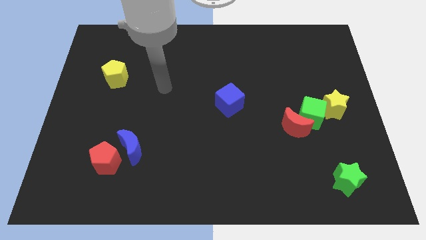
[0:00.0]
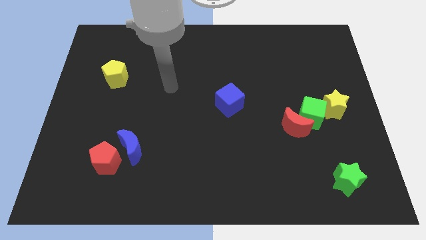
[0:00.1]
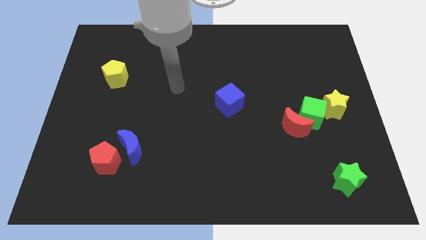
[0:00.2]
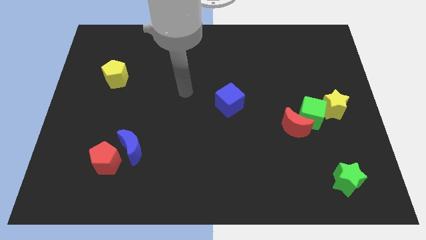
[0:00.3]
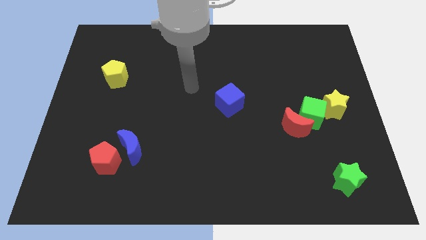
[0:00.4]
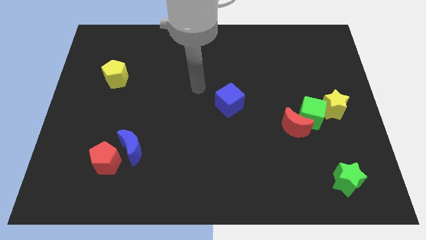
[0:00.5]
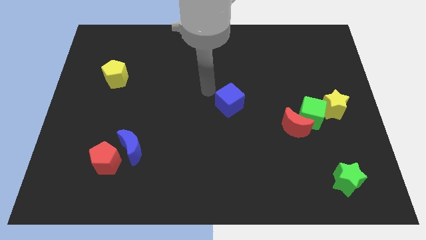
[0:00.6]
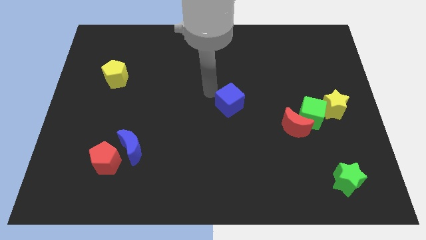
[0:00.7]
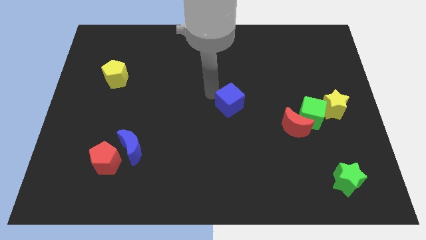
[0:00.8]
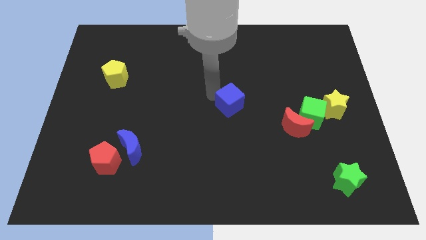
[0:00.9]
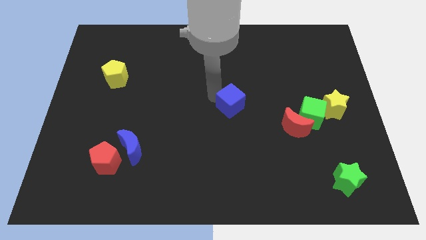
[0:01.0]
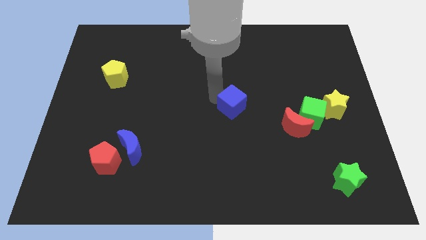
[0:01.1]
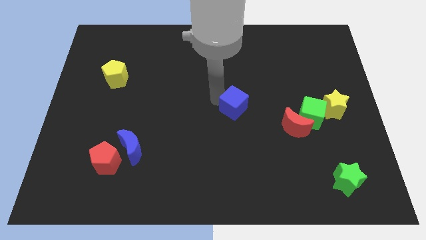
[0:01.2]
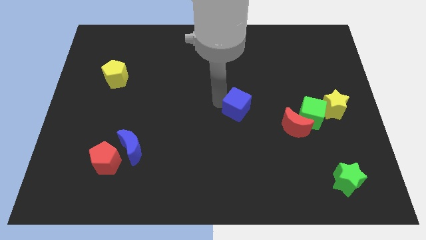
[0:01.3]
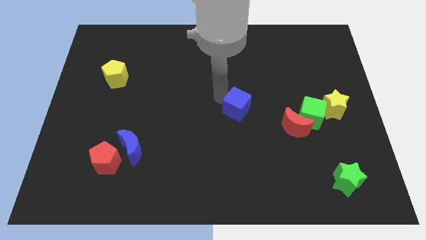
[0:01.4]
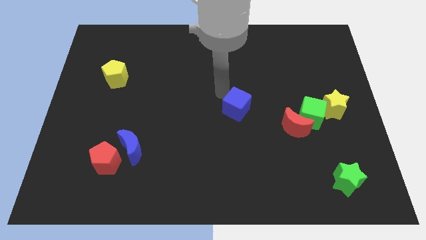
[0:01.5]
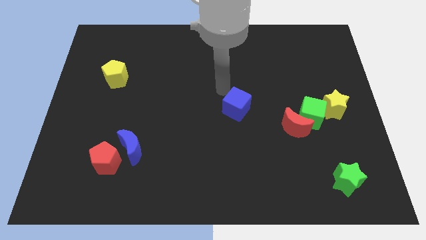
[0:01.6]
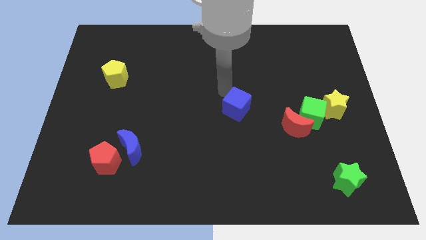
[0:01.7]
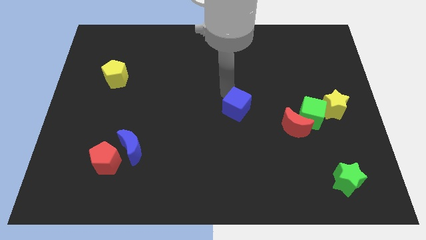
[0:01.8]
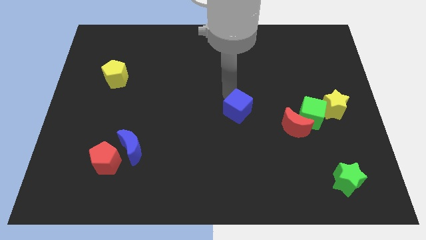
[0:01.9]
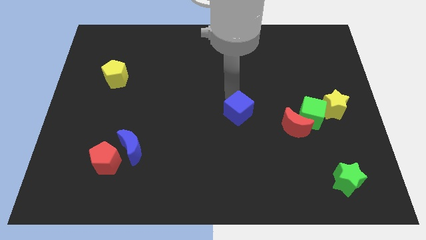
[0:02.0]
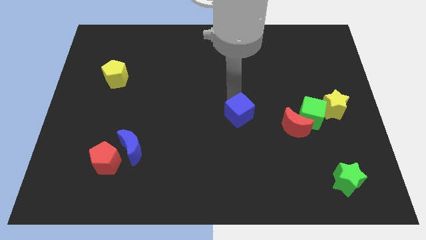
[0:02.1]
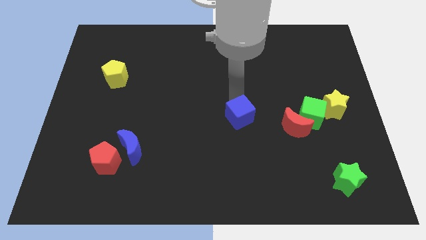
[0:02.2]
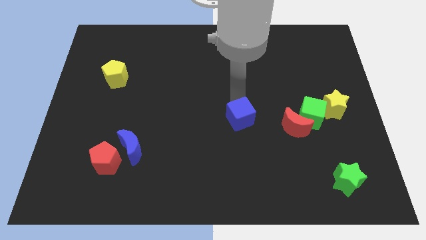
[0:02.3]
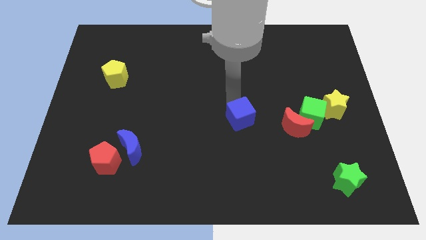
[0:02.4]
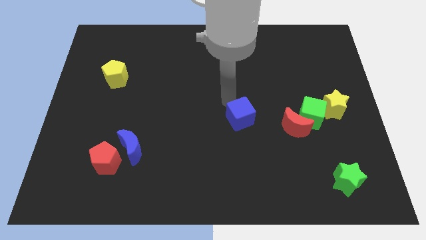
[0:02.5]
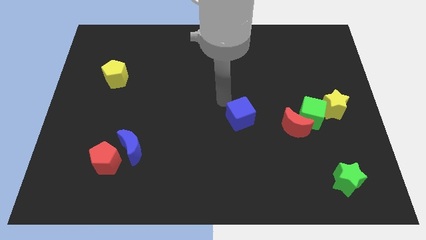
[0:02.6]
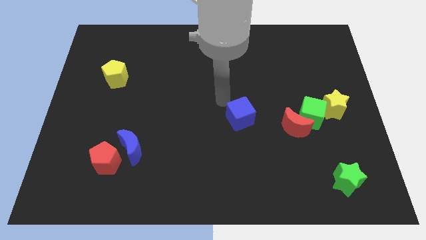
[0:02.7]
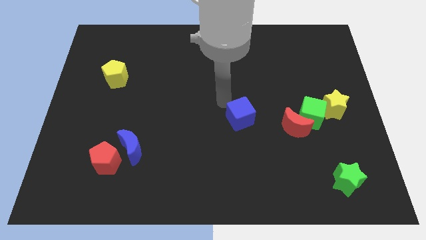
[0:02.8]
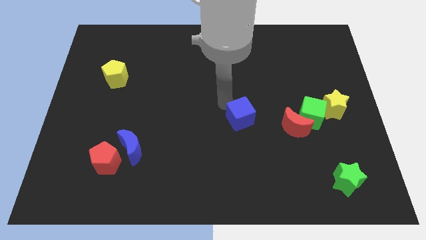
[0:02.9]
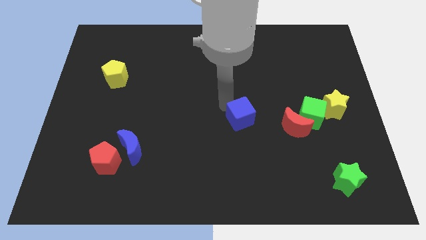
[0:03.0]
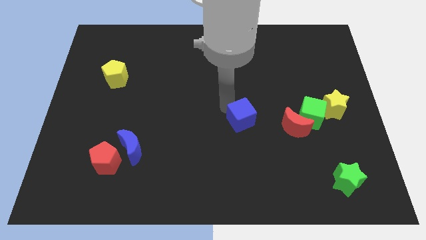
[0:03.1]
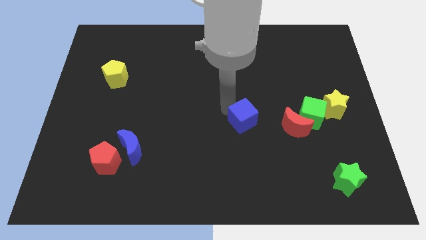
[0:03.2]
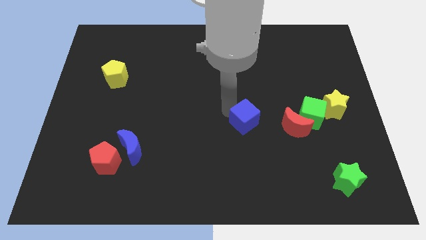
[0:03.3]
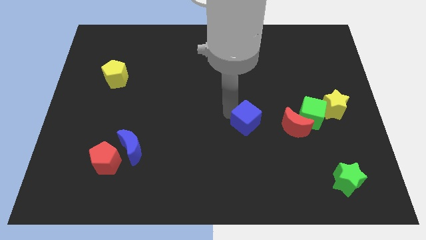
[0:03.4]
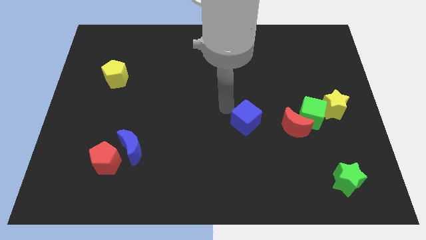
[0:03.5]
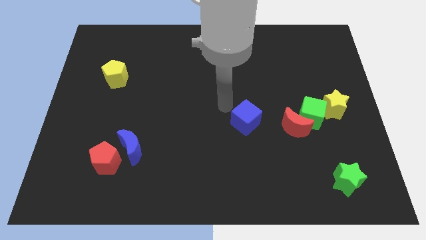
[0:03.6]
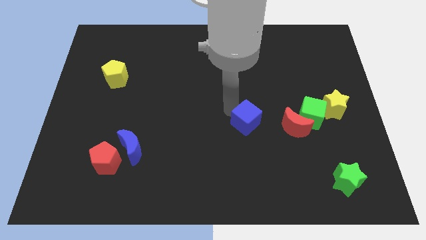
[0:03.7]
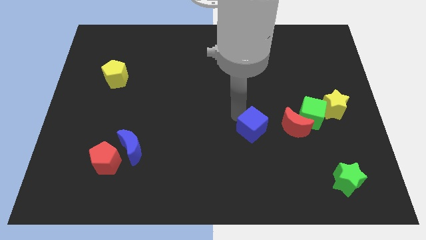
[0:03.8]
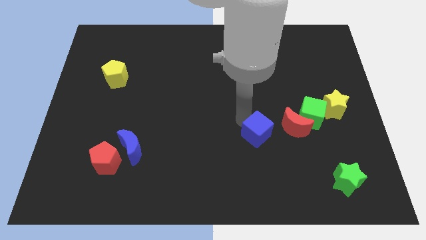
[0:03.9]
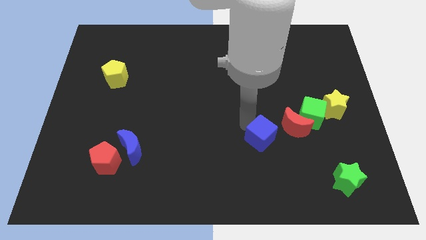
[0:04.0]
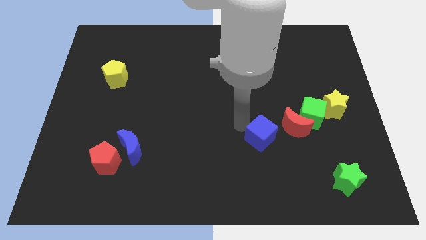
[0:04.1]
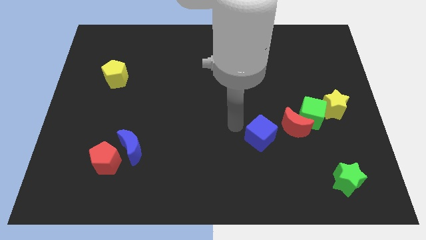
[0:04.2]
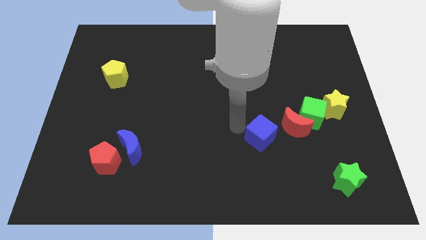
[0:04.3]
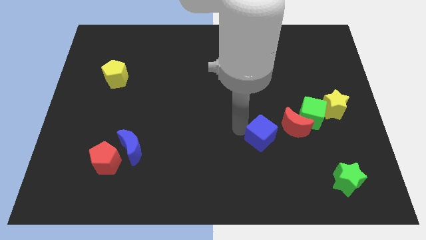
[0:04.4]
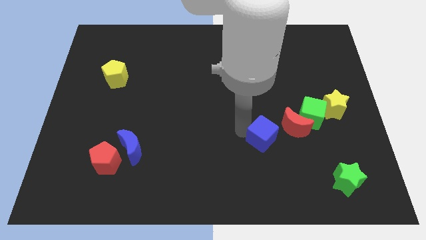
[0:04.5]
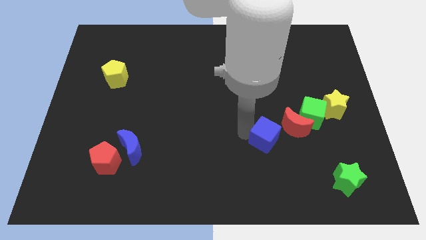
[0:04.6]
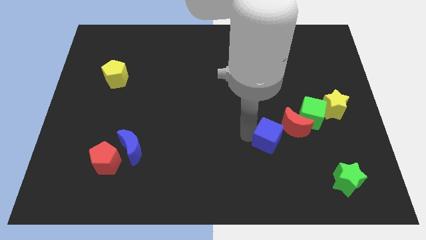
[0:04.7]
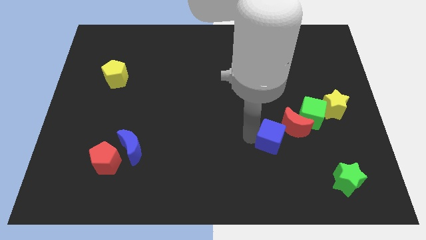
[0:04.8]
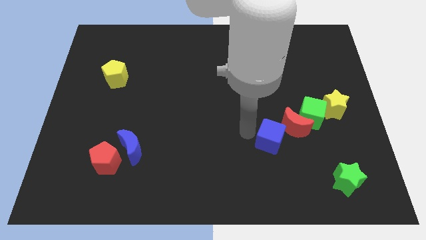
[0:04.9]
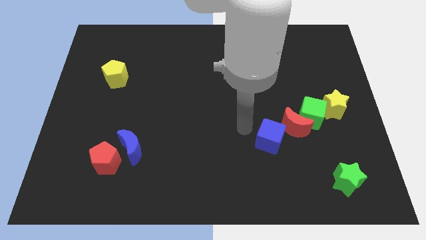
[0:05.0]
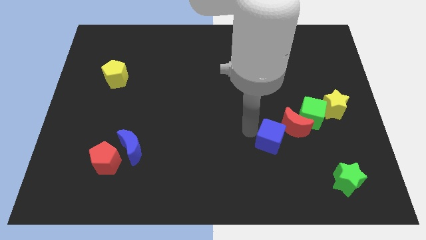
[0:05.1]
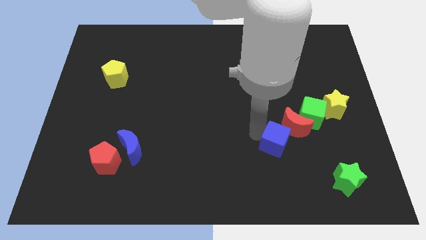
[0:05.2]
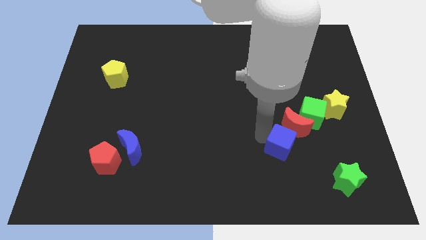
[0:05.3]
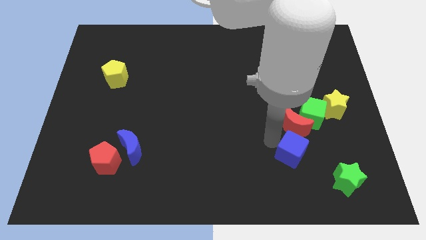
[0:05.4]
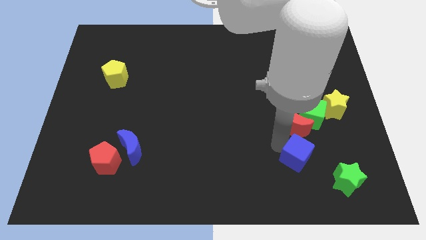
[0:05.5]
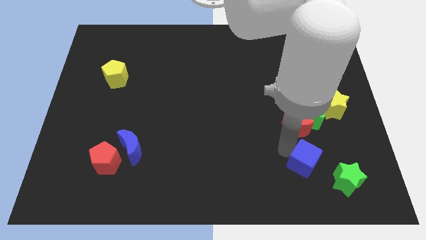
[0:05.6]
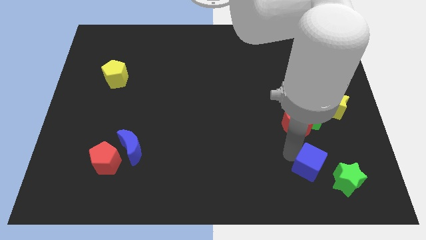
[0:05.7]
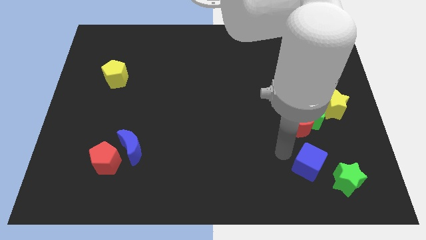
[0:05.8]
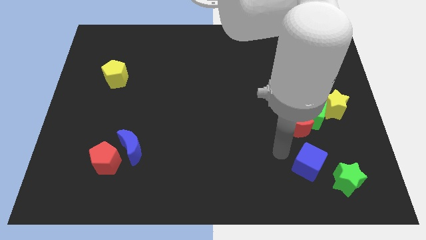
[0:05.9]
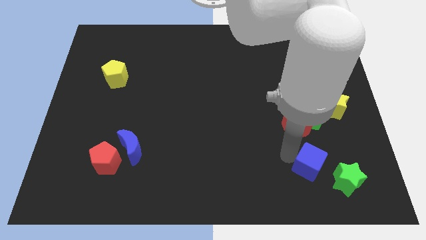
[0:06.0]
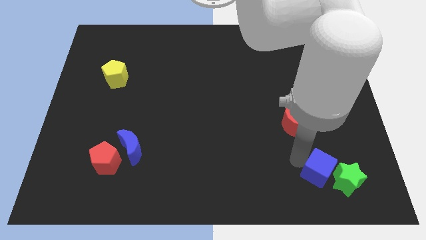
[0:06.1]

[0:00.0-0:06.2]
push the blue cube to the green star

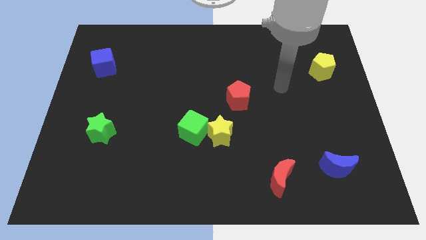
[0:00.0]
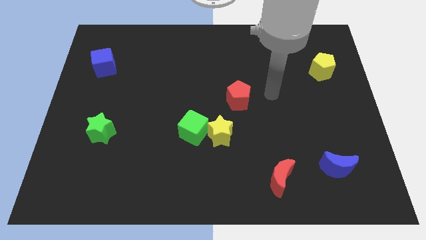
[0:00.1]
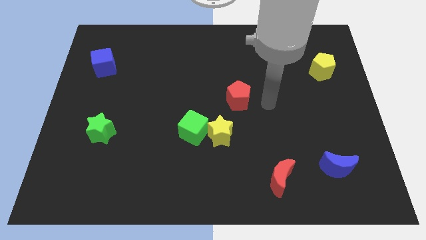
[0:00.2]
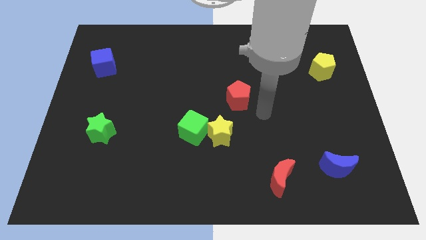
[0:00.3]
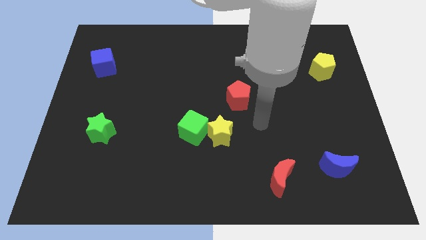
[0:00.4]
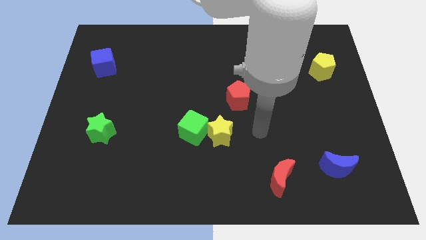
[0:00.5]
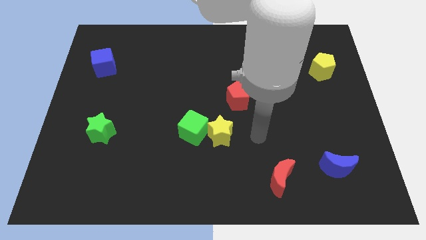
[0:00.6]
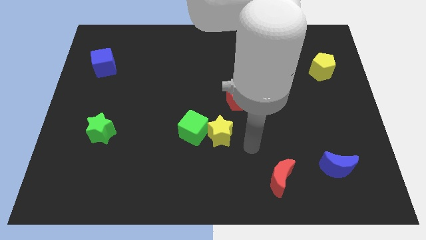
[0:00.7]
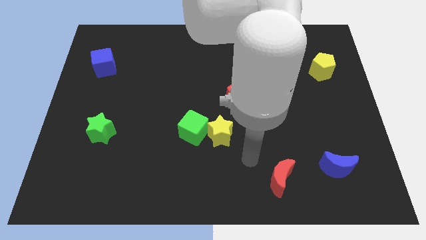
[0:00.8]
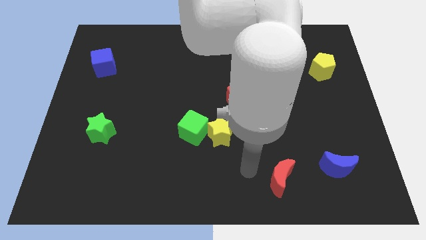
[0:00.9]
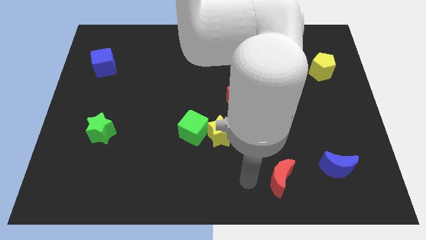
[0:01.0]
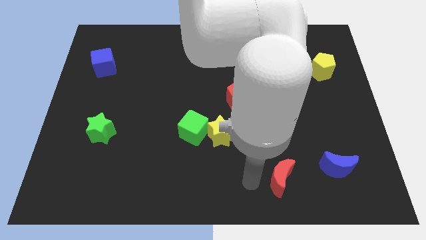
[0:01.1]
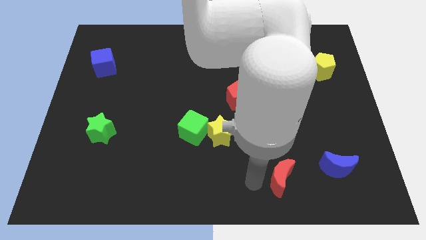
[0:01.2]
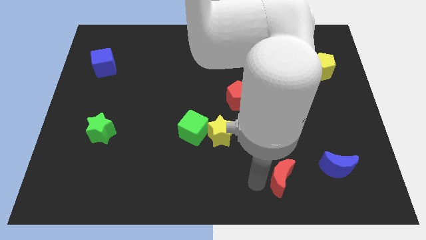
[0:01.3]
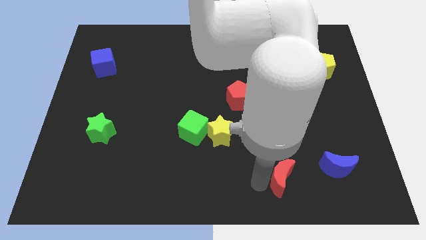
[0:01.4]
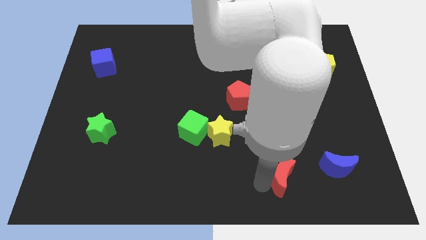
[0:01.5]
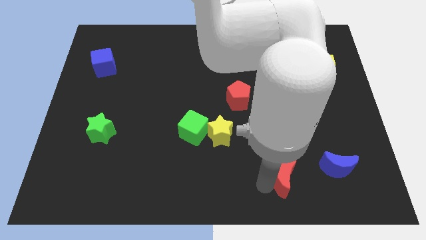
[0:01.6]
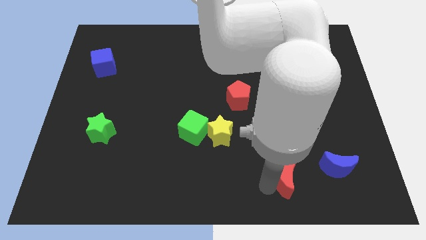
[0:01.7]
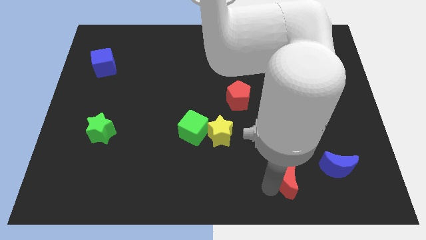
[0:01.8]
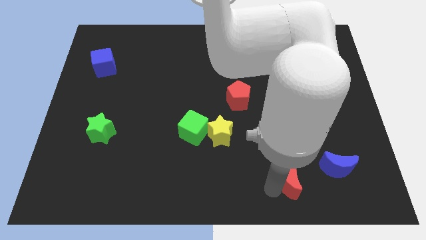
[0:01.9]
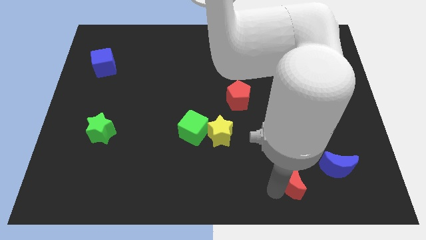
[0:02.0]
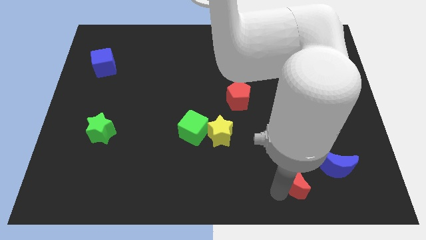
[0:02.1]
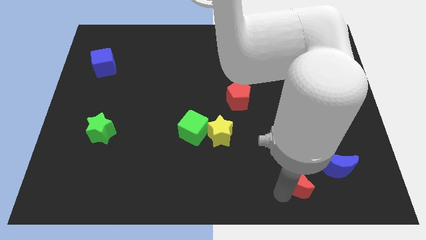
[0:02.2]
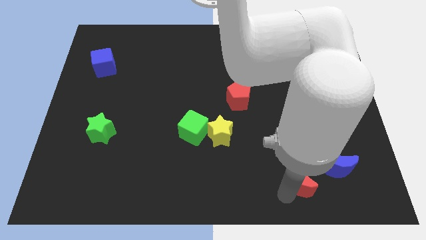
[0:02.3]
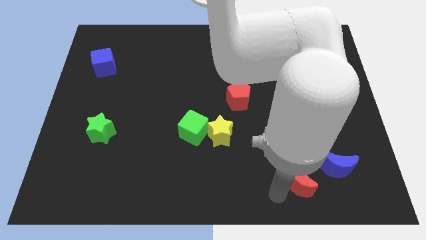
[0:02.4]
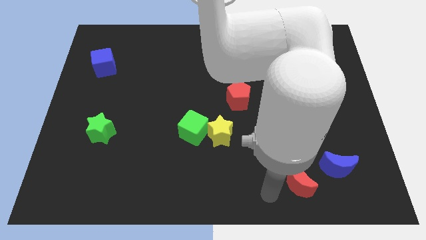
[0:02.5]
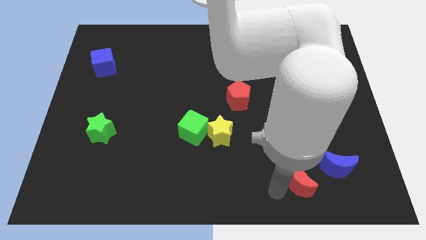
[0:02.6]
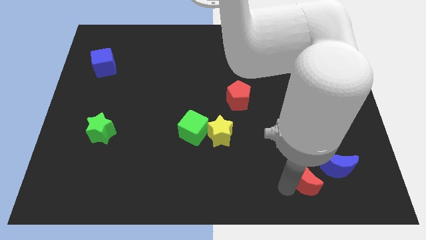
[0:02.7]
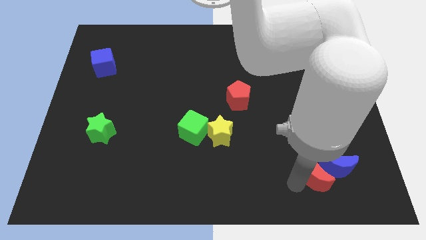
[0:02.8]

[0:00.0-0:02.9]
move the red moon to the blue moon
